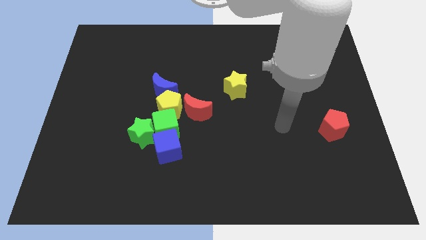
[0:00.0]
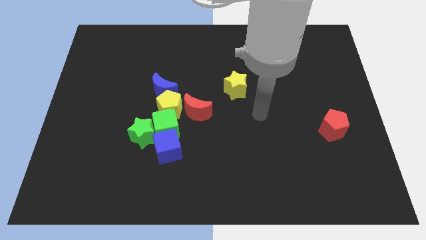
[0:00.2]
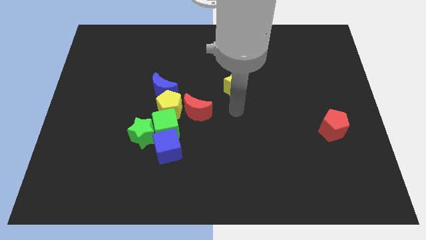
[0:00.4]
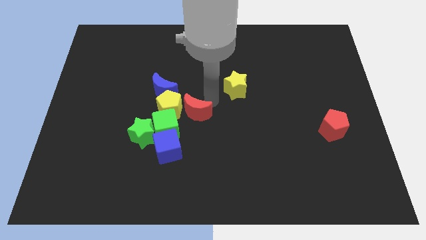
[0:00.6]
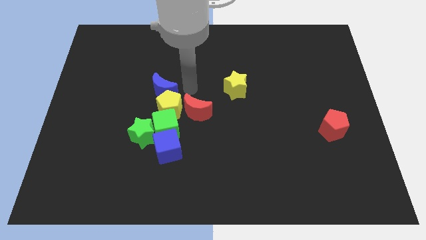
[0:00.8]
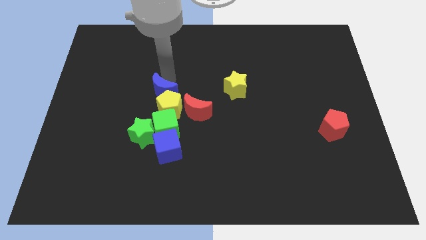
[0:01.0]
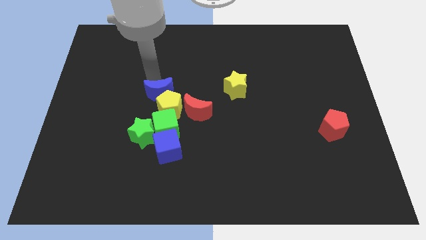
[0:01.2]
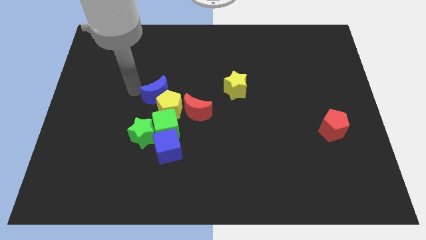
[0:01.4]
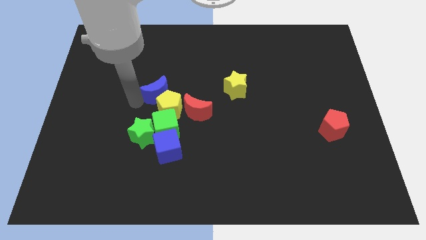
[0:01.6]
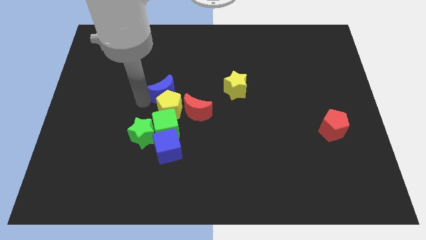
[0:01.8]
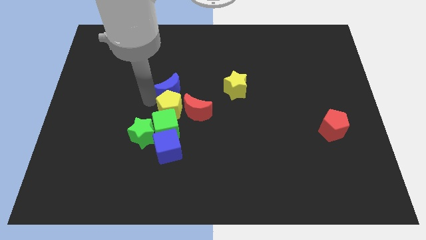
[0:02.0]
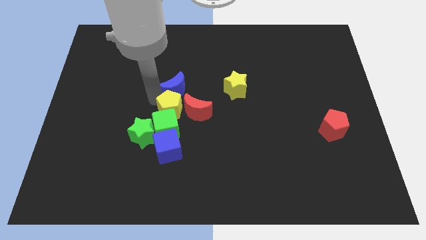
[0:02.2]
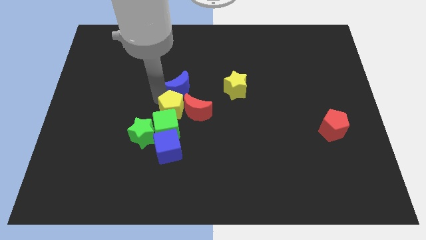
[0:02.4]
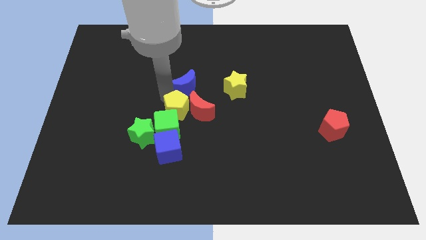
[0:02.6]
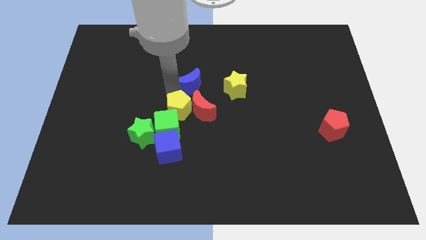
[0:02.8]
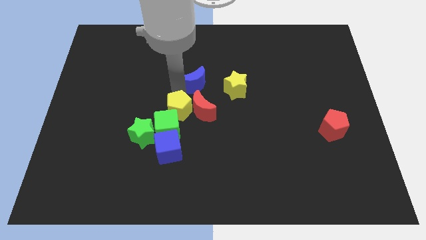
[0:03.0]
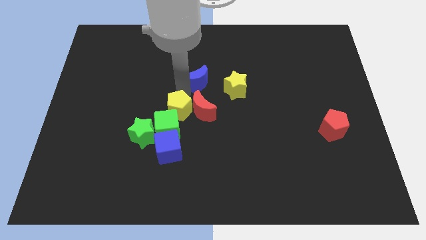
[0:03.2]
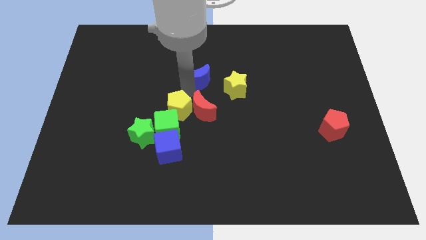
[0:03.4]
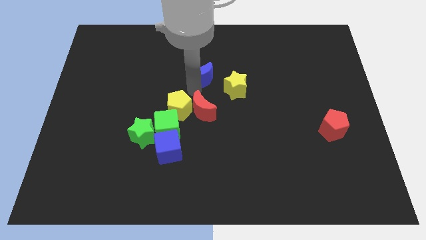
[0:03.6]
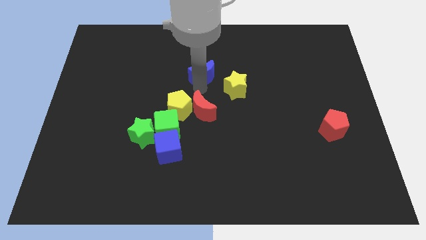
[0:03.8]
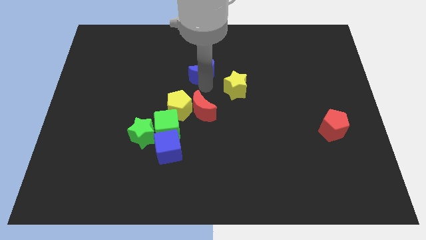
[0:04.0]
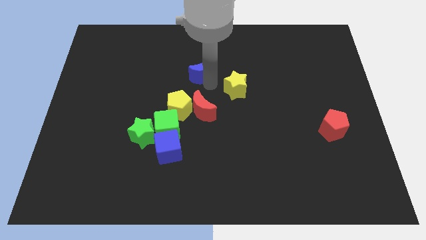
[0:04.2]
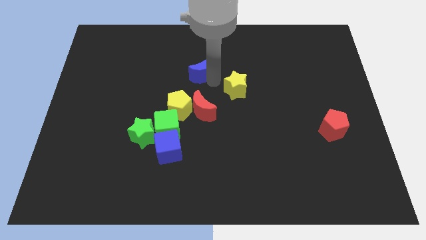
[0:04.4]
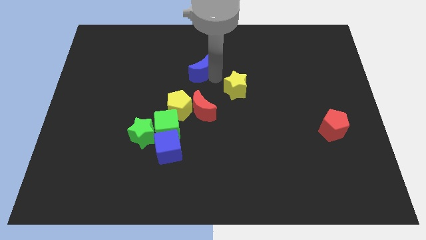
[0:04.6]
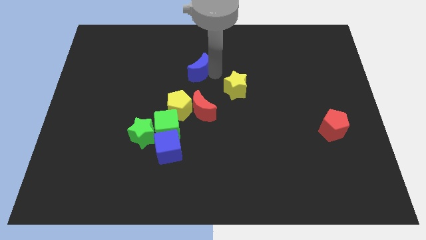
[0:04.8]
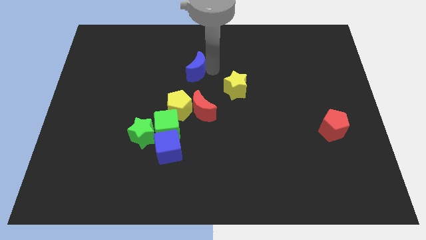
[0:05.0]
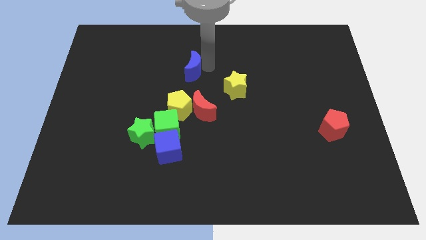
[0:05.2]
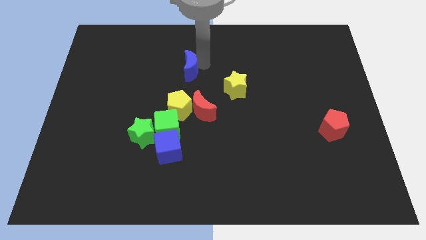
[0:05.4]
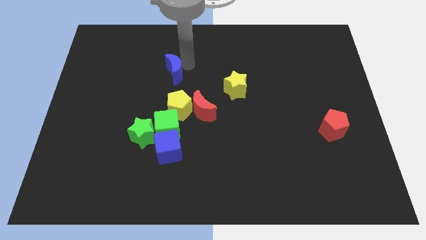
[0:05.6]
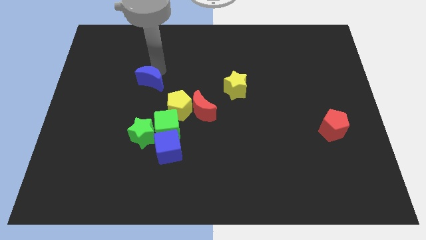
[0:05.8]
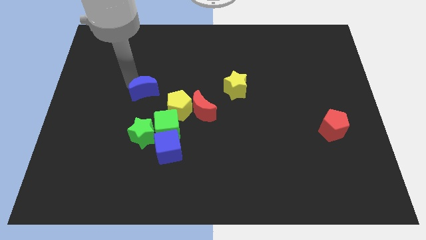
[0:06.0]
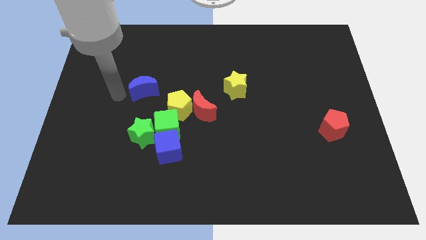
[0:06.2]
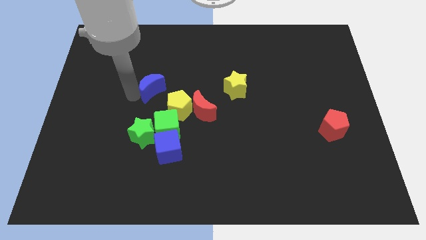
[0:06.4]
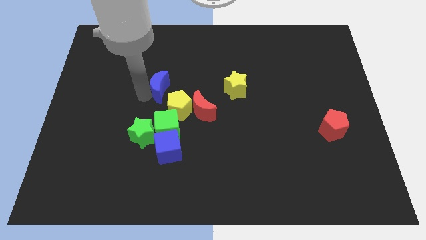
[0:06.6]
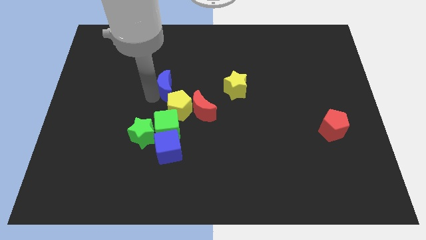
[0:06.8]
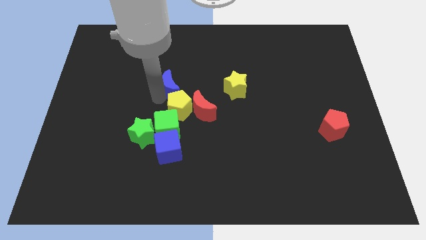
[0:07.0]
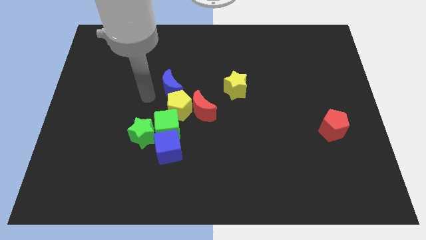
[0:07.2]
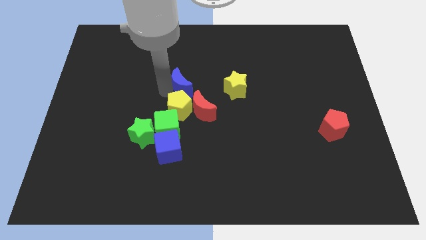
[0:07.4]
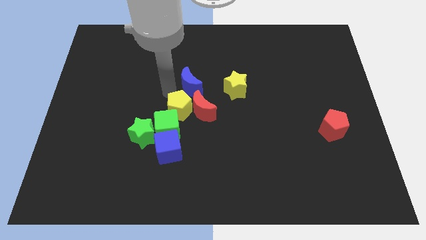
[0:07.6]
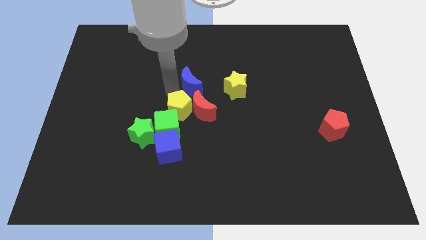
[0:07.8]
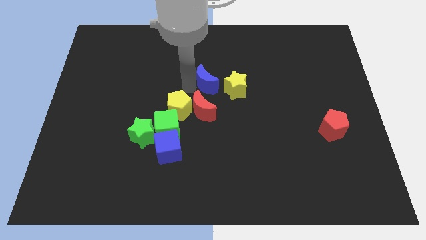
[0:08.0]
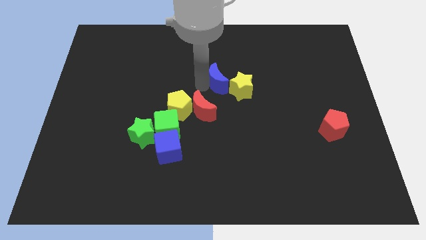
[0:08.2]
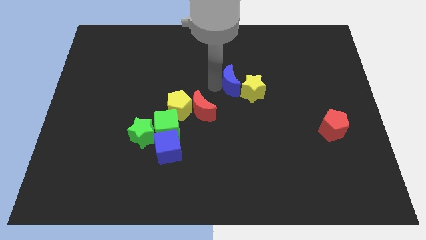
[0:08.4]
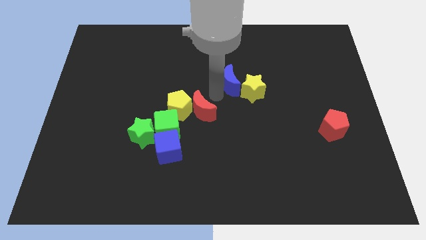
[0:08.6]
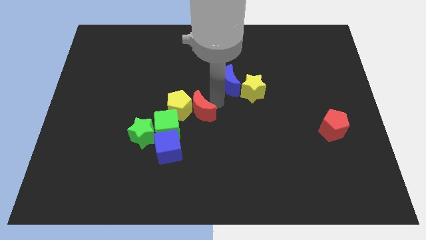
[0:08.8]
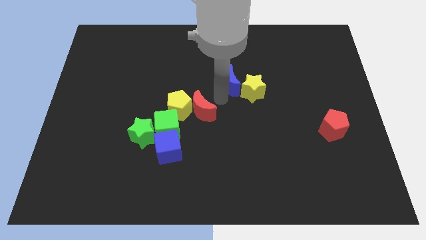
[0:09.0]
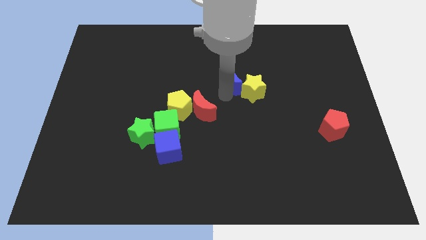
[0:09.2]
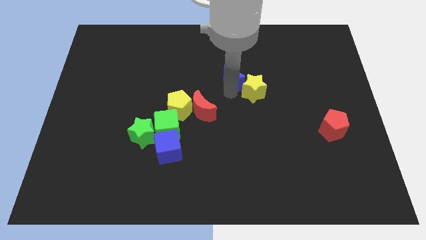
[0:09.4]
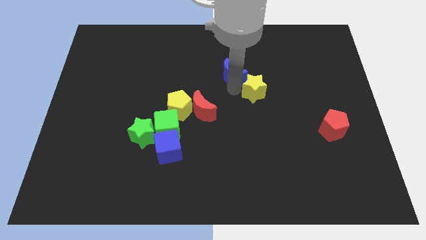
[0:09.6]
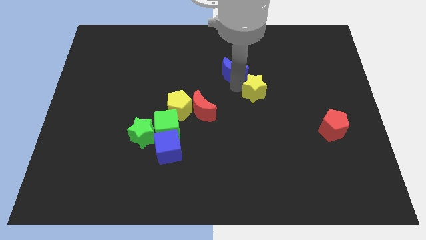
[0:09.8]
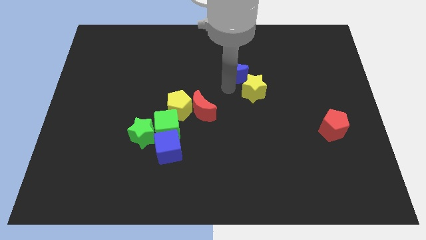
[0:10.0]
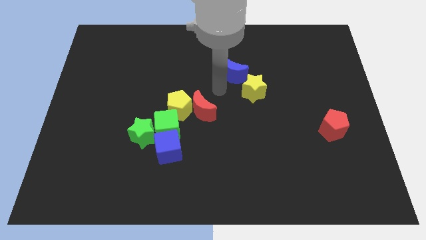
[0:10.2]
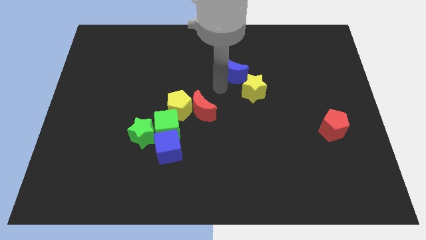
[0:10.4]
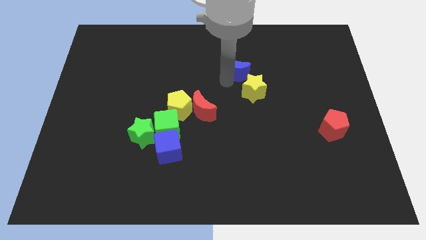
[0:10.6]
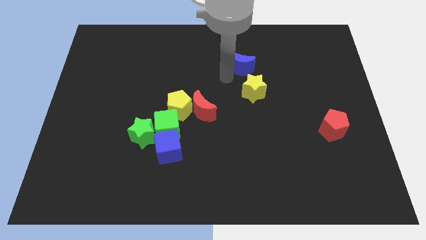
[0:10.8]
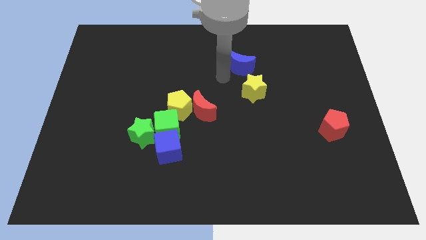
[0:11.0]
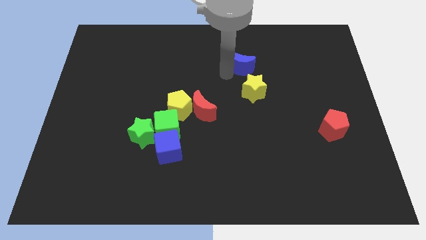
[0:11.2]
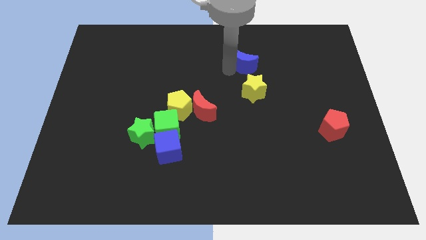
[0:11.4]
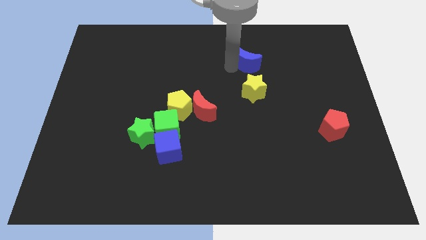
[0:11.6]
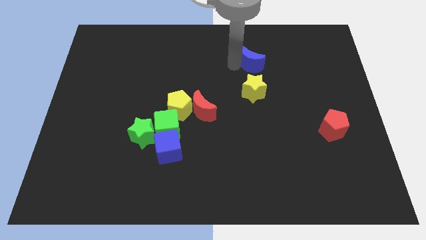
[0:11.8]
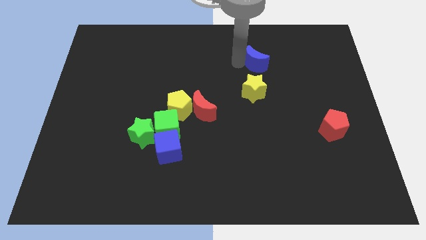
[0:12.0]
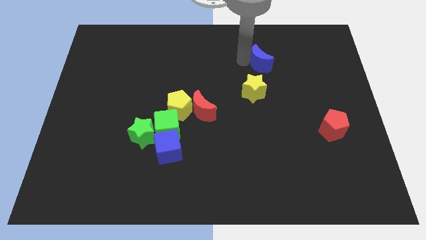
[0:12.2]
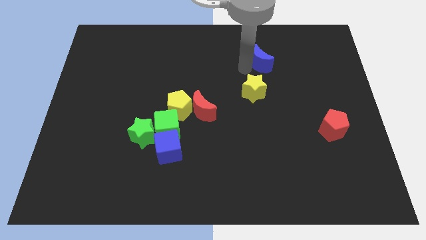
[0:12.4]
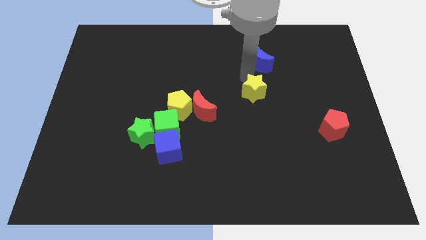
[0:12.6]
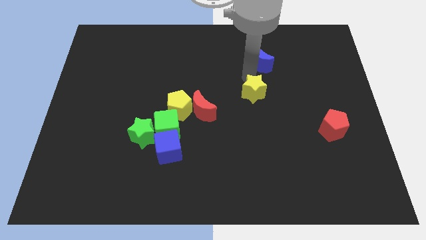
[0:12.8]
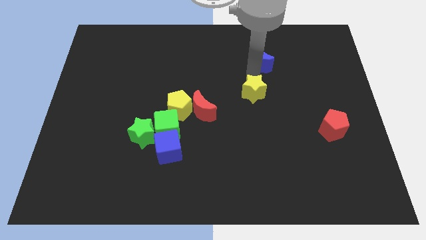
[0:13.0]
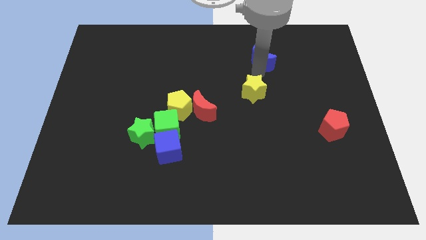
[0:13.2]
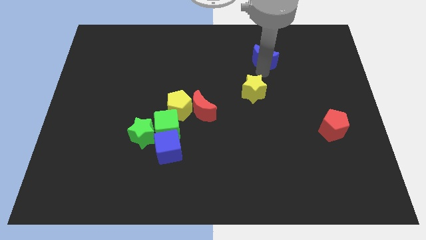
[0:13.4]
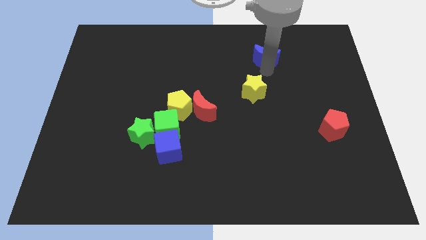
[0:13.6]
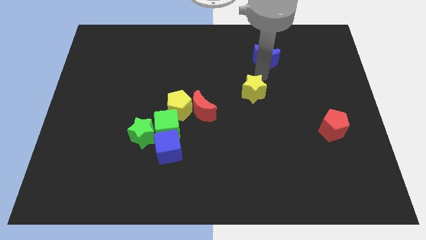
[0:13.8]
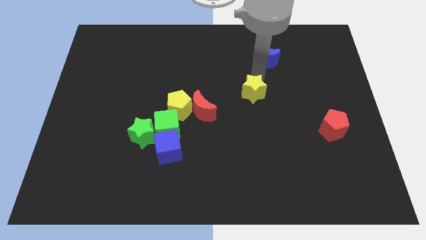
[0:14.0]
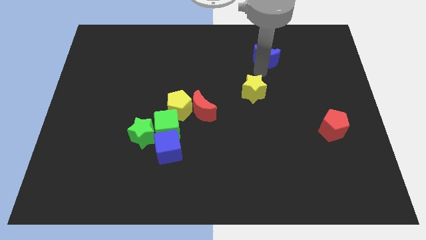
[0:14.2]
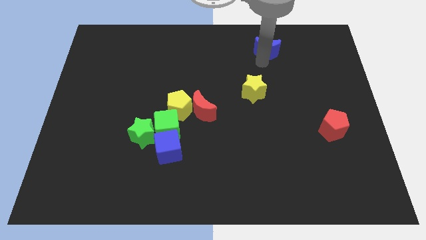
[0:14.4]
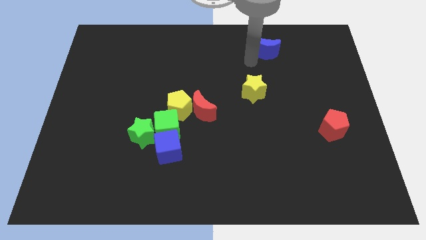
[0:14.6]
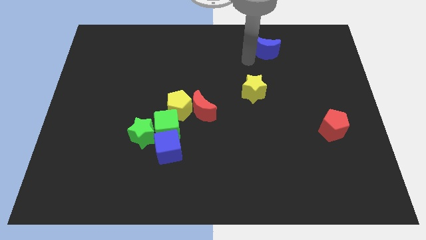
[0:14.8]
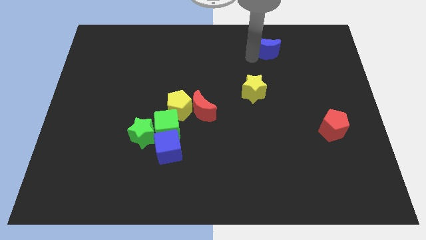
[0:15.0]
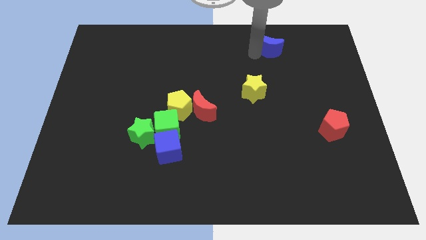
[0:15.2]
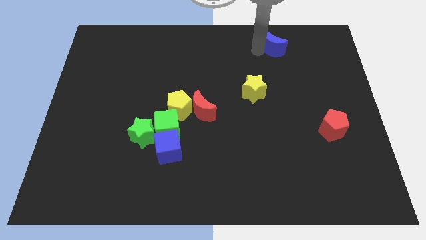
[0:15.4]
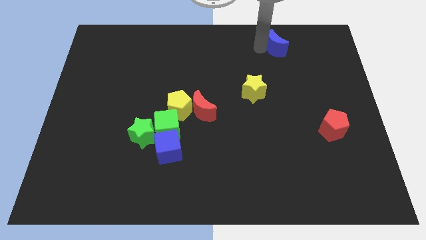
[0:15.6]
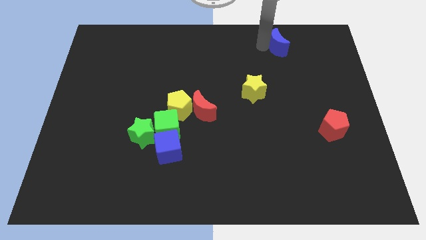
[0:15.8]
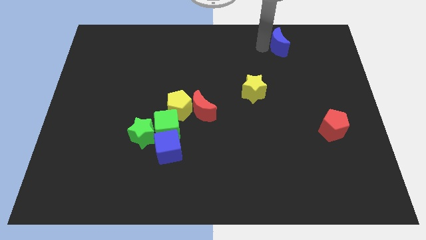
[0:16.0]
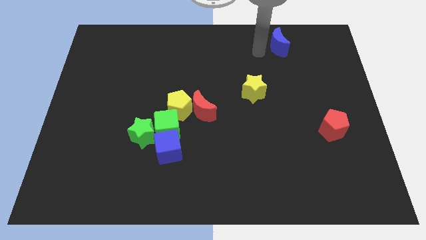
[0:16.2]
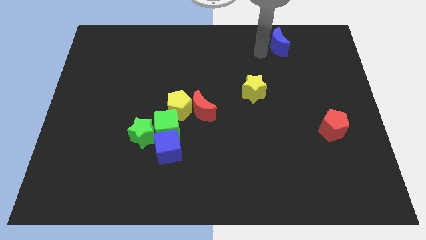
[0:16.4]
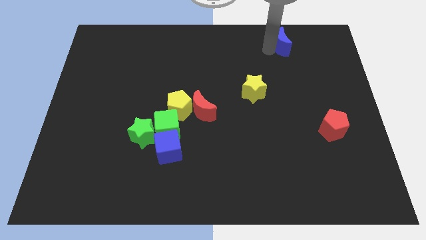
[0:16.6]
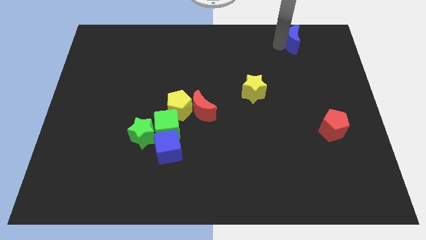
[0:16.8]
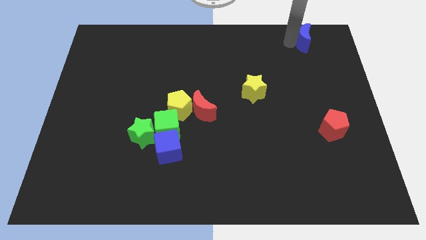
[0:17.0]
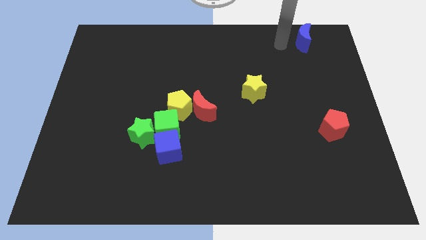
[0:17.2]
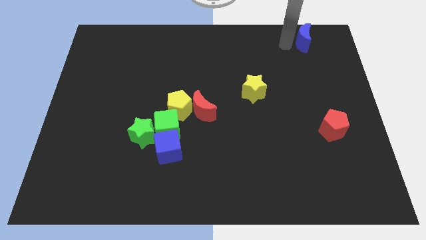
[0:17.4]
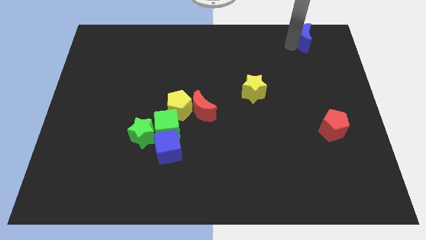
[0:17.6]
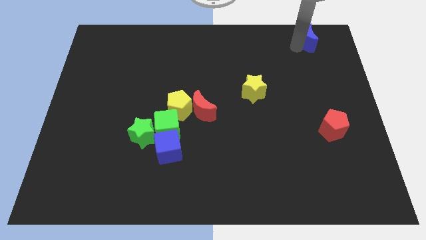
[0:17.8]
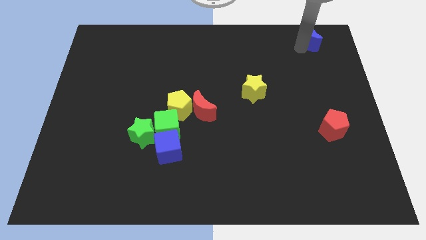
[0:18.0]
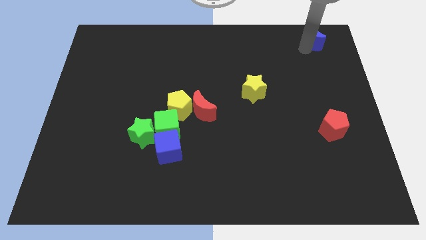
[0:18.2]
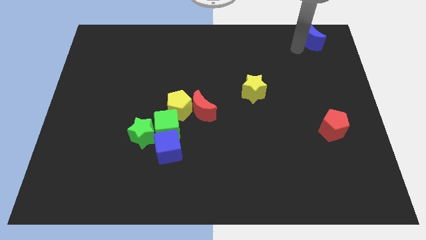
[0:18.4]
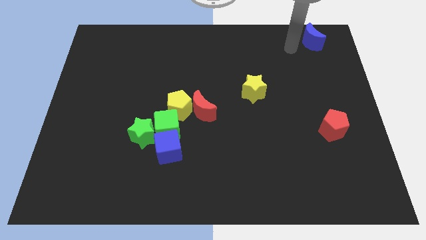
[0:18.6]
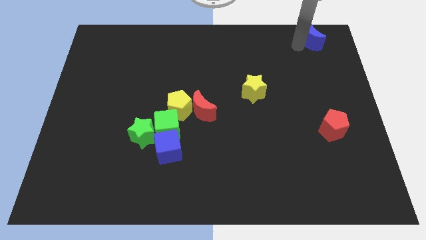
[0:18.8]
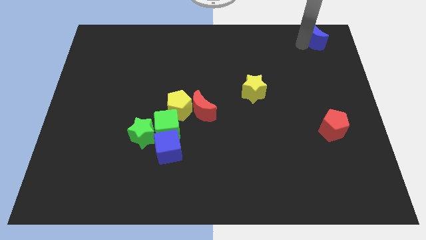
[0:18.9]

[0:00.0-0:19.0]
put the blue moon to the top right corner
